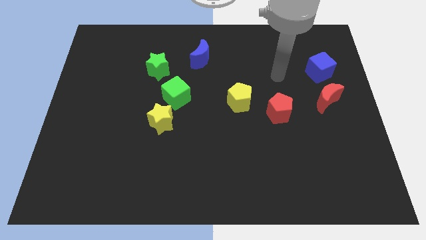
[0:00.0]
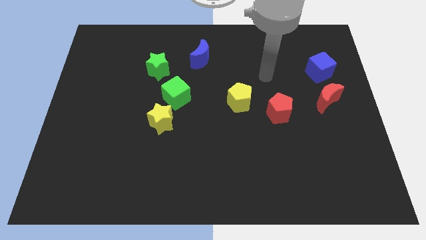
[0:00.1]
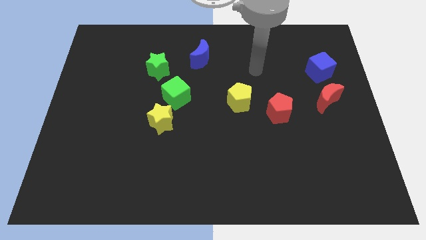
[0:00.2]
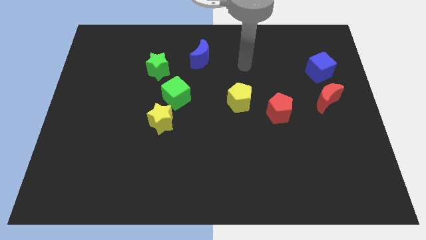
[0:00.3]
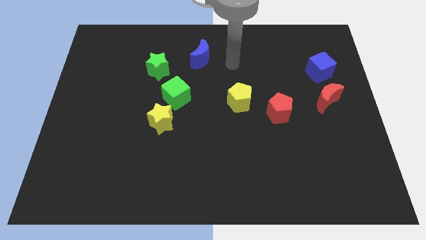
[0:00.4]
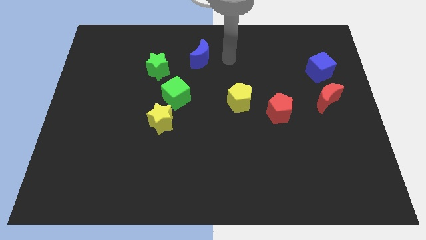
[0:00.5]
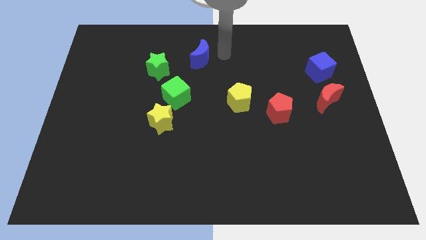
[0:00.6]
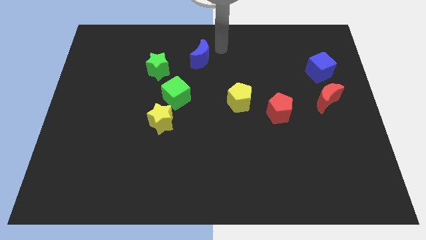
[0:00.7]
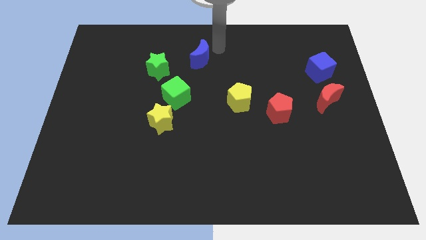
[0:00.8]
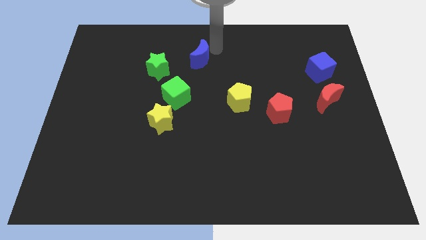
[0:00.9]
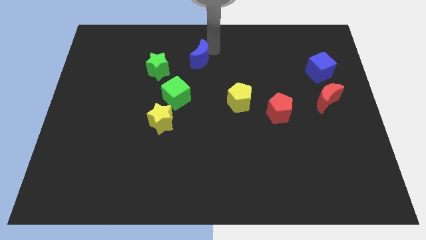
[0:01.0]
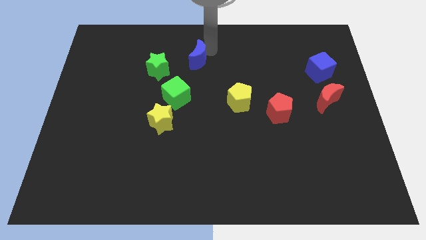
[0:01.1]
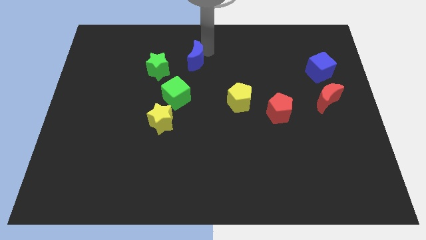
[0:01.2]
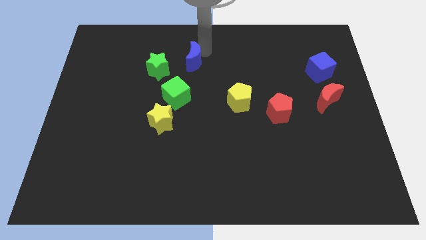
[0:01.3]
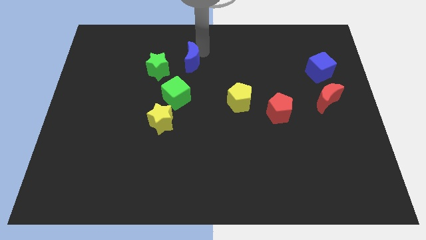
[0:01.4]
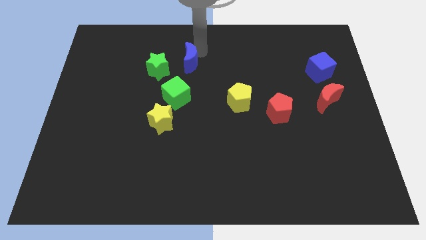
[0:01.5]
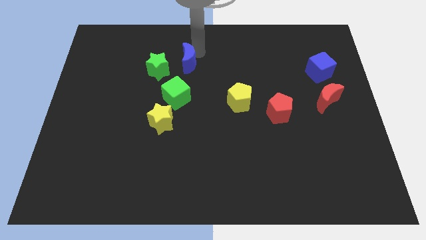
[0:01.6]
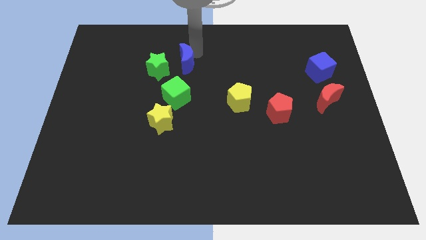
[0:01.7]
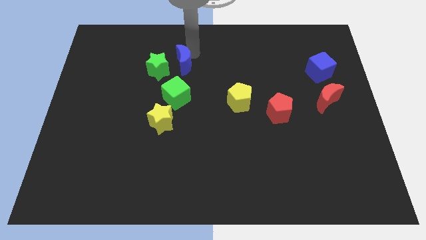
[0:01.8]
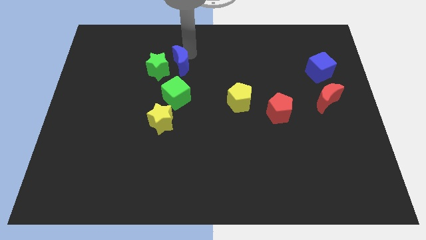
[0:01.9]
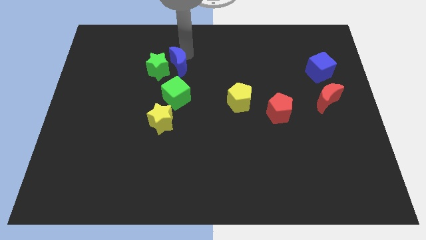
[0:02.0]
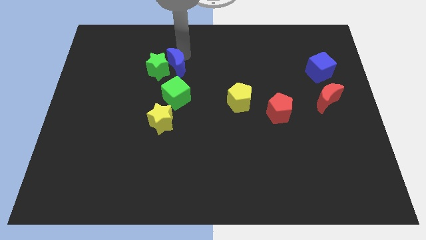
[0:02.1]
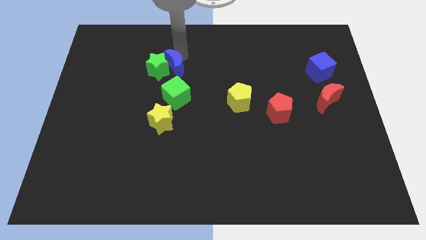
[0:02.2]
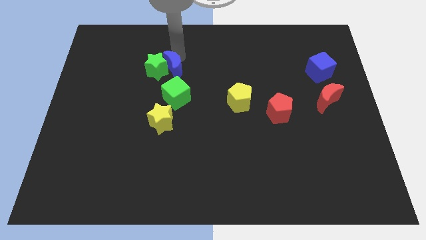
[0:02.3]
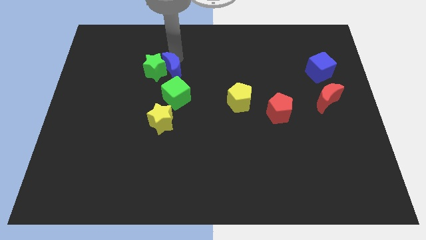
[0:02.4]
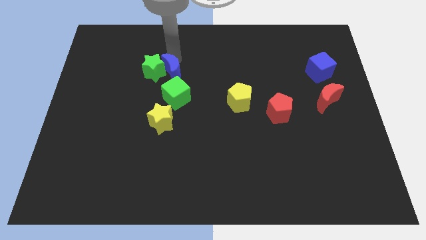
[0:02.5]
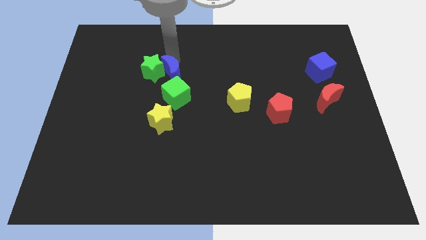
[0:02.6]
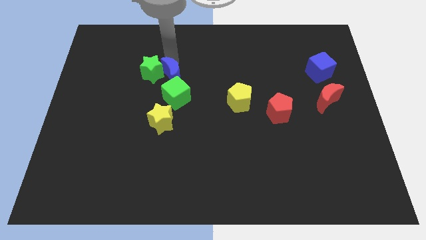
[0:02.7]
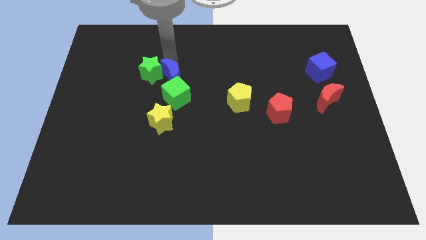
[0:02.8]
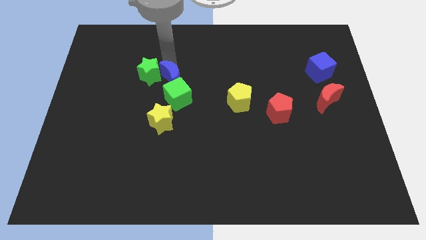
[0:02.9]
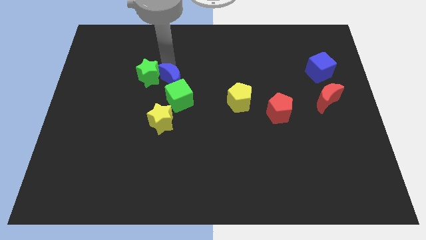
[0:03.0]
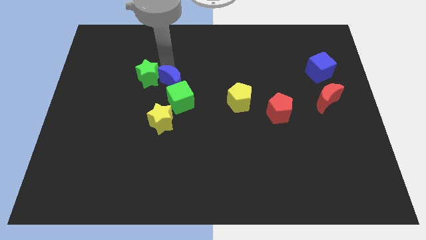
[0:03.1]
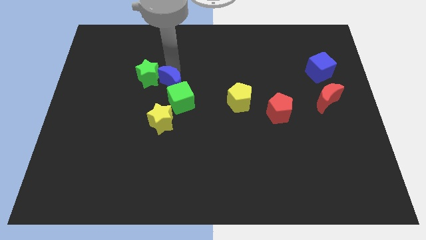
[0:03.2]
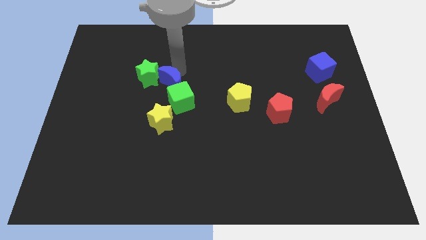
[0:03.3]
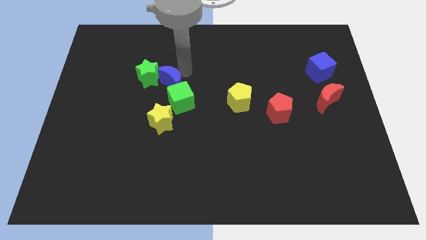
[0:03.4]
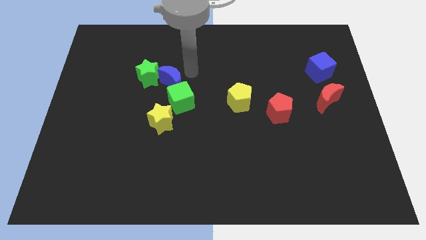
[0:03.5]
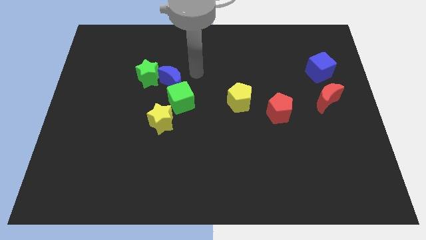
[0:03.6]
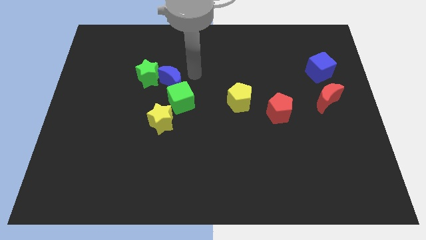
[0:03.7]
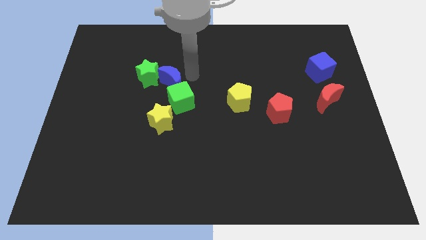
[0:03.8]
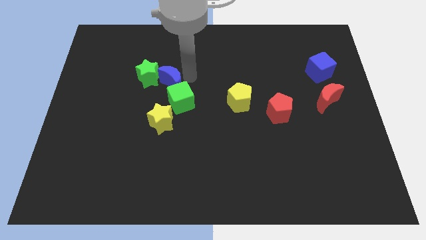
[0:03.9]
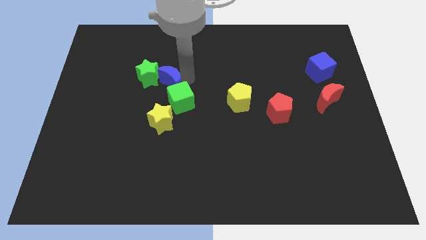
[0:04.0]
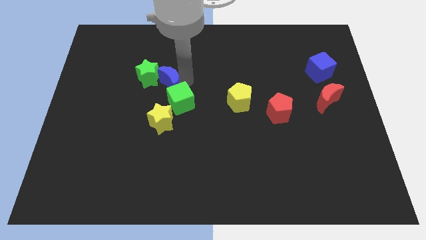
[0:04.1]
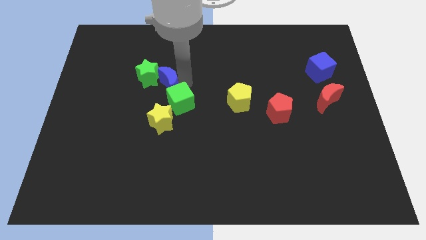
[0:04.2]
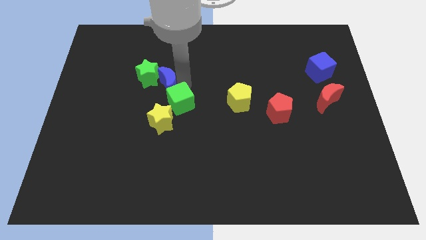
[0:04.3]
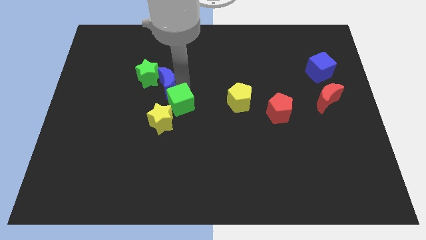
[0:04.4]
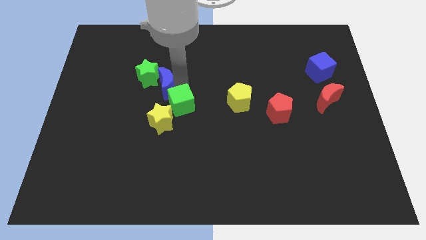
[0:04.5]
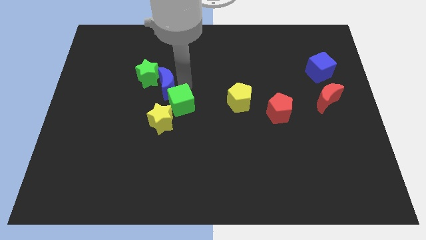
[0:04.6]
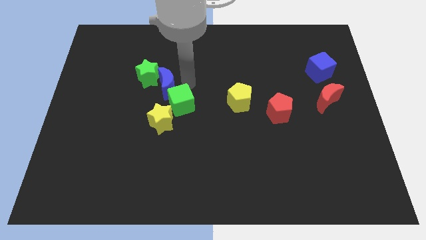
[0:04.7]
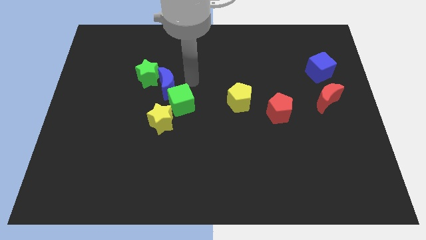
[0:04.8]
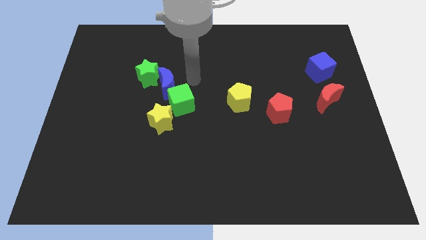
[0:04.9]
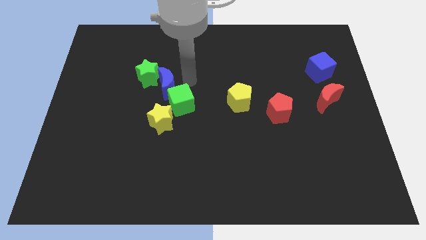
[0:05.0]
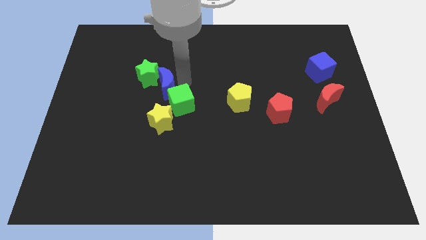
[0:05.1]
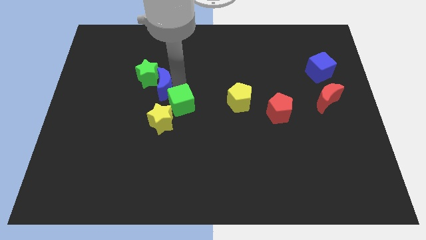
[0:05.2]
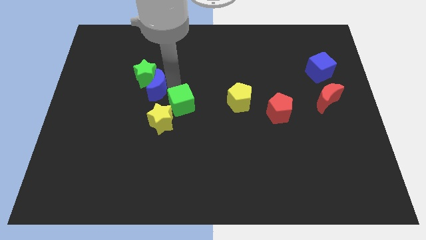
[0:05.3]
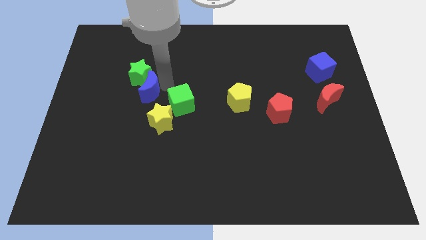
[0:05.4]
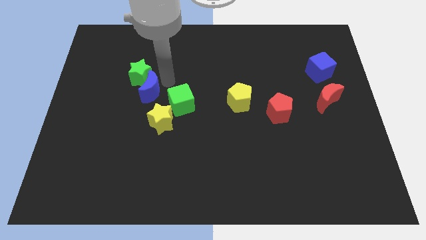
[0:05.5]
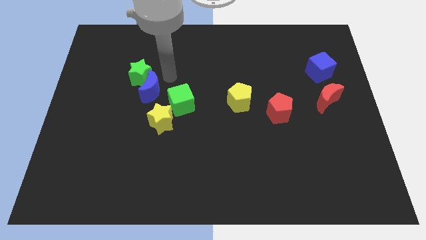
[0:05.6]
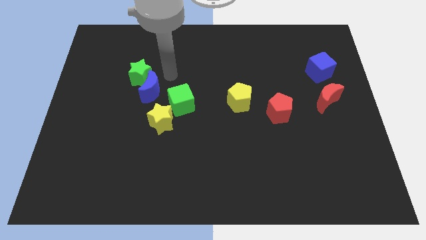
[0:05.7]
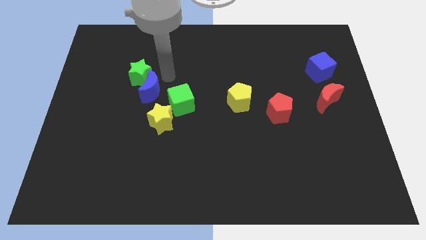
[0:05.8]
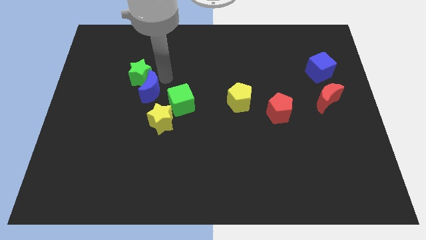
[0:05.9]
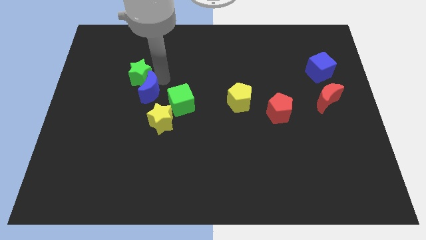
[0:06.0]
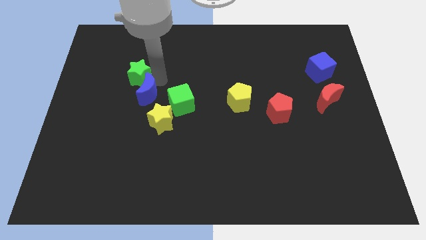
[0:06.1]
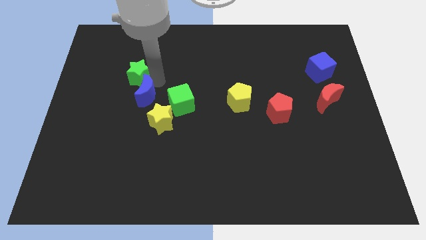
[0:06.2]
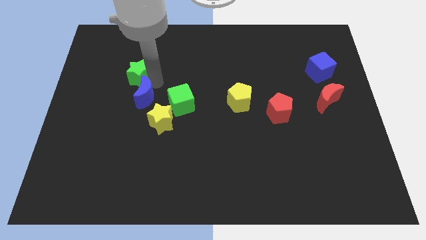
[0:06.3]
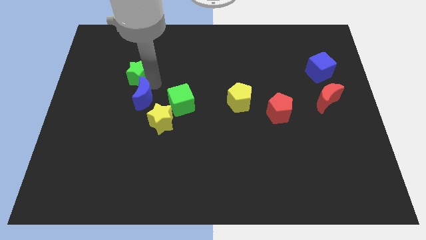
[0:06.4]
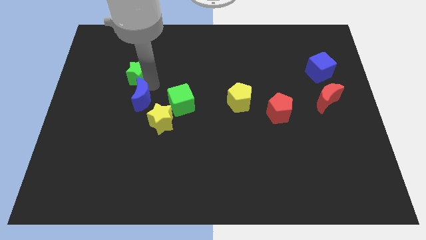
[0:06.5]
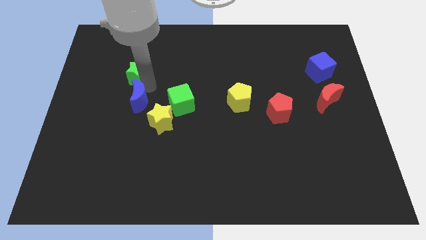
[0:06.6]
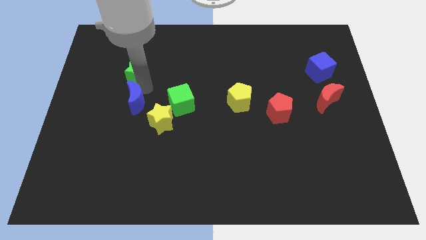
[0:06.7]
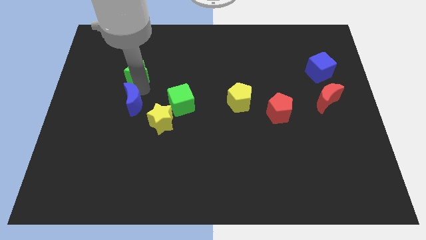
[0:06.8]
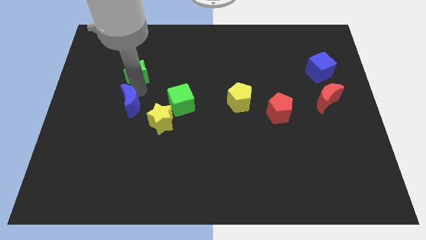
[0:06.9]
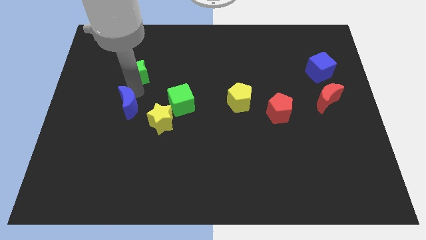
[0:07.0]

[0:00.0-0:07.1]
slide the blue moon to the left side of the yellow star
